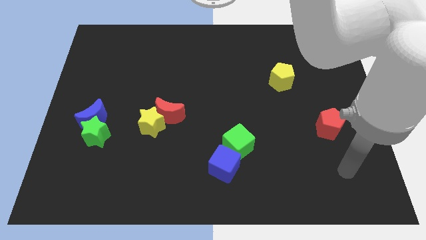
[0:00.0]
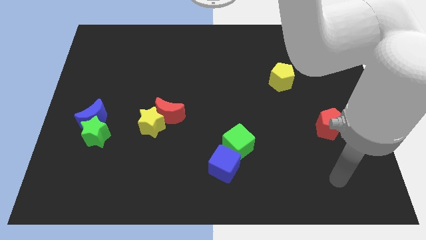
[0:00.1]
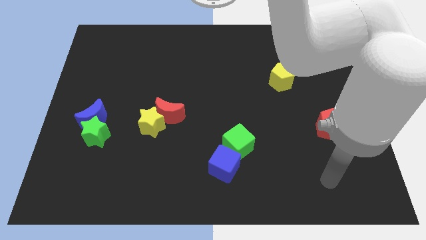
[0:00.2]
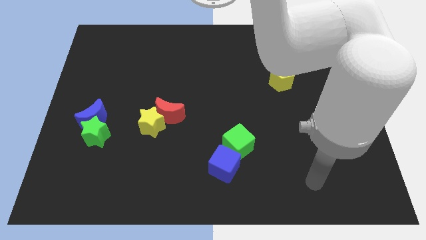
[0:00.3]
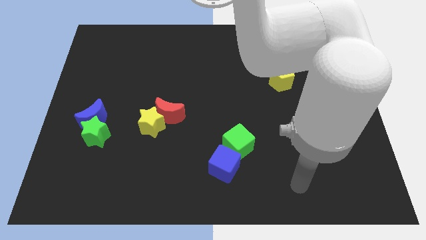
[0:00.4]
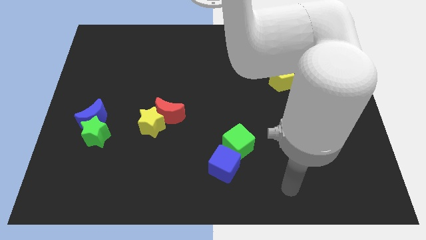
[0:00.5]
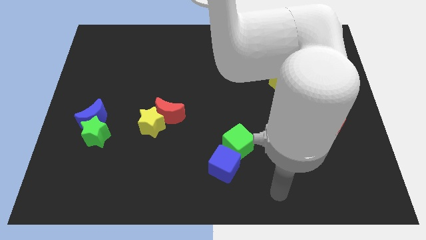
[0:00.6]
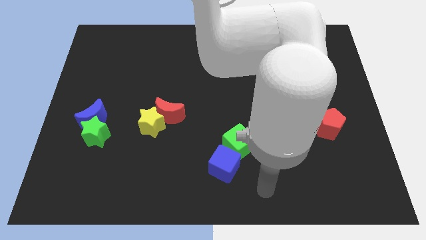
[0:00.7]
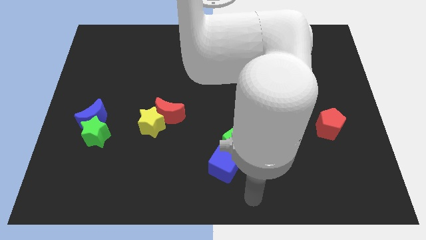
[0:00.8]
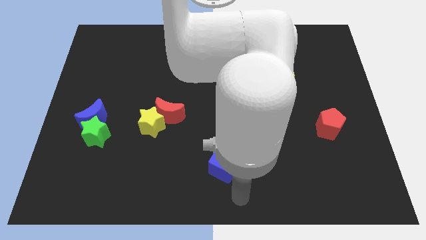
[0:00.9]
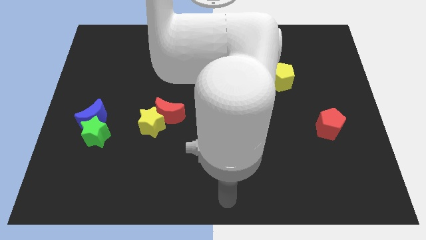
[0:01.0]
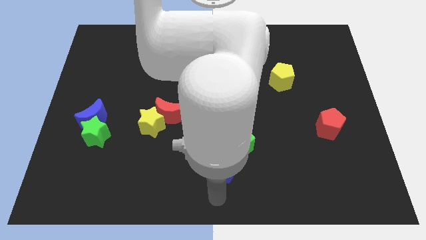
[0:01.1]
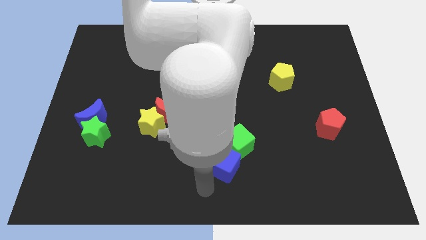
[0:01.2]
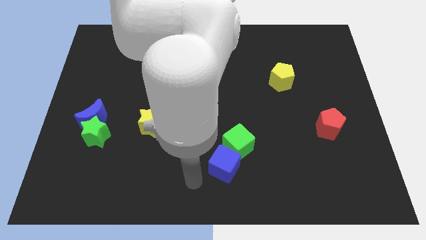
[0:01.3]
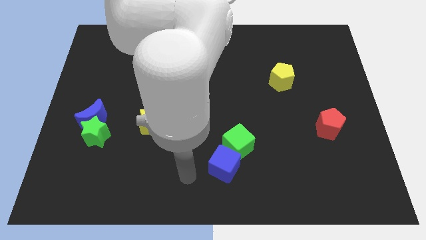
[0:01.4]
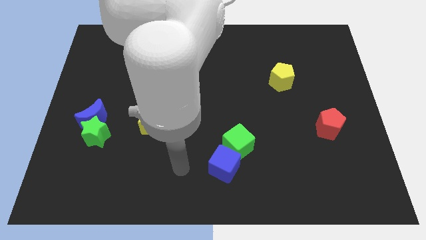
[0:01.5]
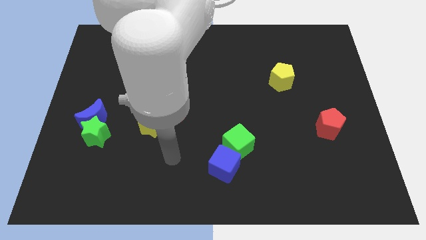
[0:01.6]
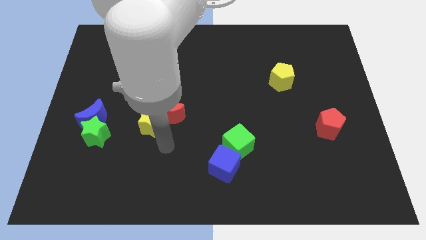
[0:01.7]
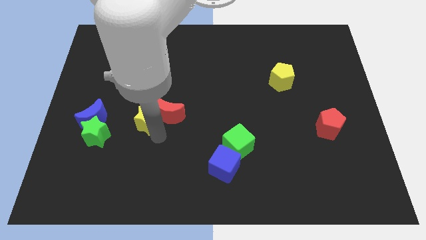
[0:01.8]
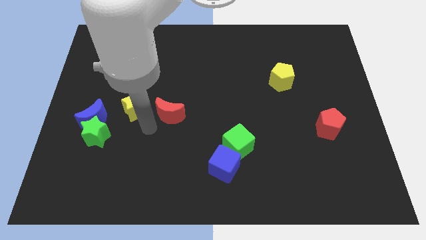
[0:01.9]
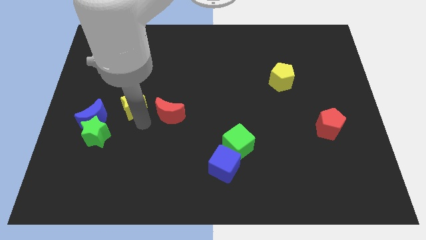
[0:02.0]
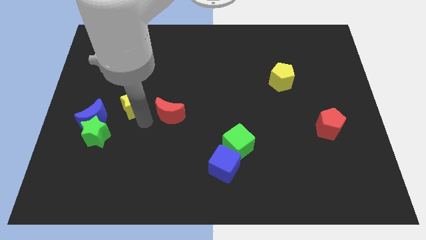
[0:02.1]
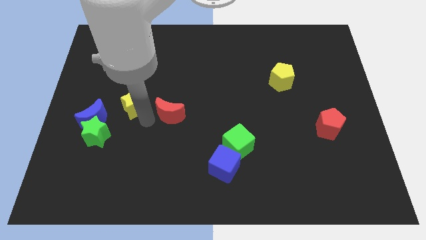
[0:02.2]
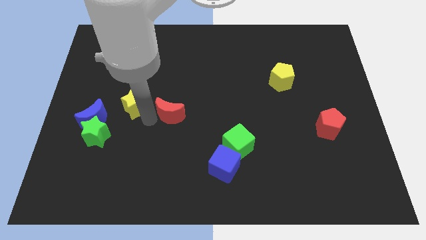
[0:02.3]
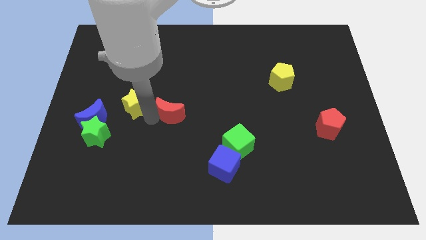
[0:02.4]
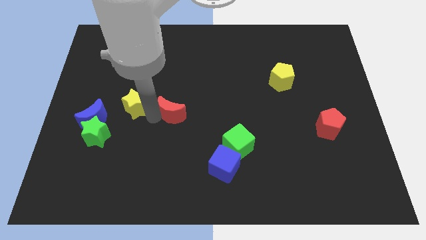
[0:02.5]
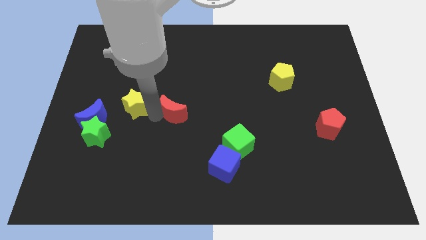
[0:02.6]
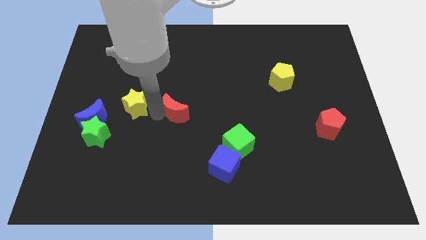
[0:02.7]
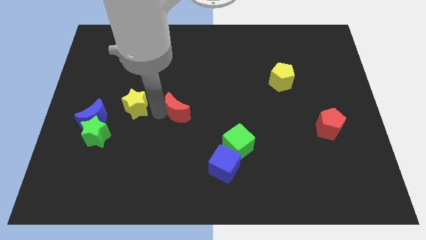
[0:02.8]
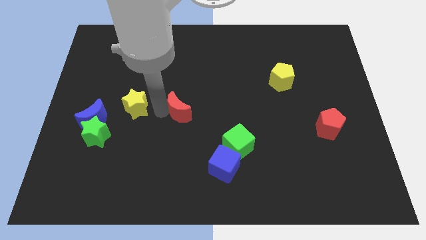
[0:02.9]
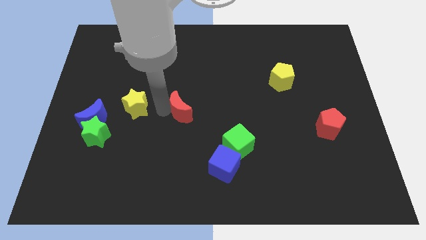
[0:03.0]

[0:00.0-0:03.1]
pull the red moon apart from the yellow star

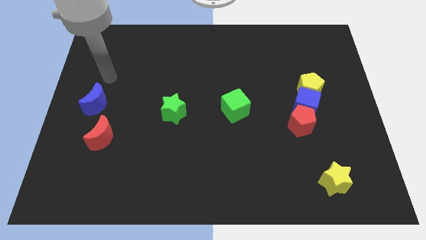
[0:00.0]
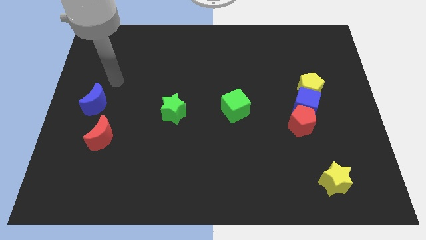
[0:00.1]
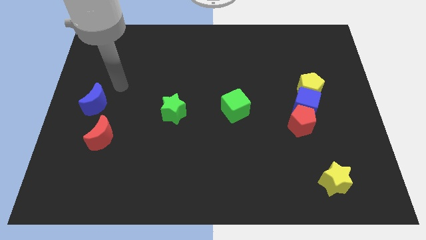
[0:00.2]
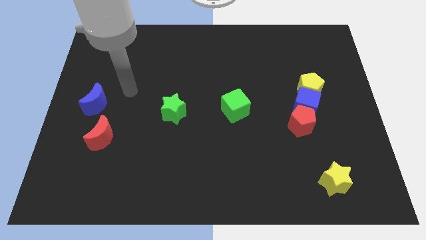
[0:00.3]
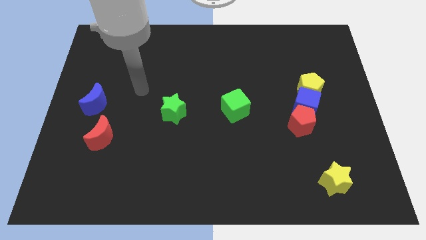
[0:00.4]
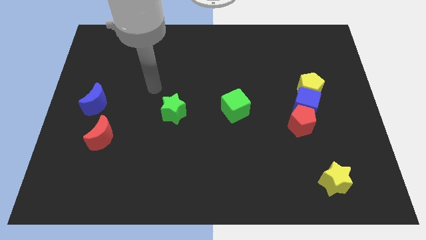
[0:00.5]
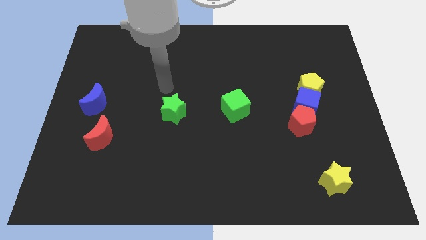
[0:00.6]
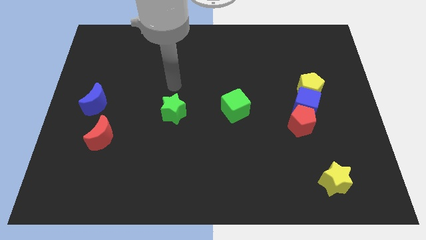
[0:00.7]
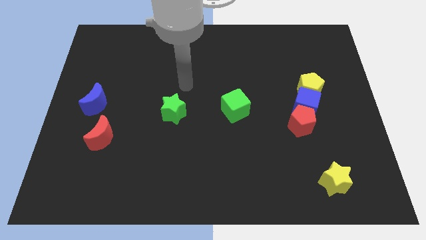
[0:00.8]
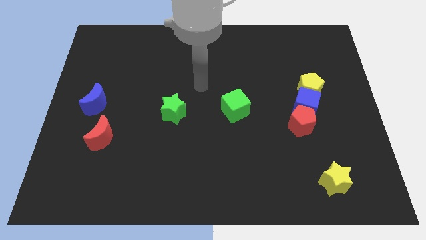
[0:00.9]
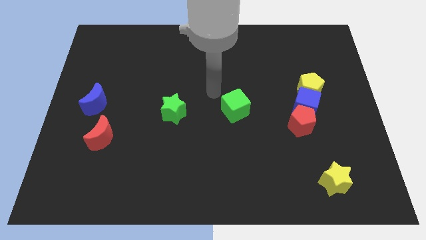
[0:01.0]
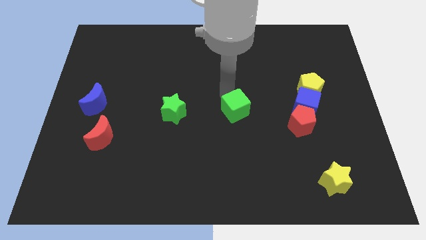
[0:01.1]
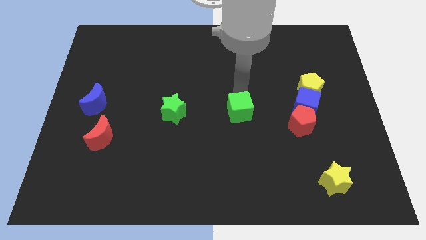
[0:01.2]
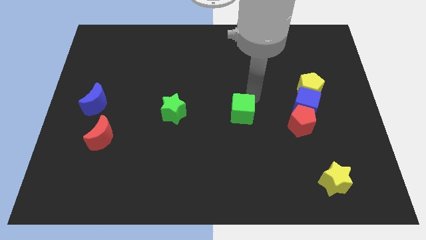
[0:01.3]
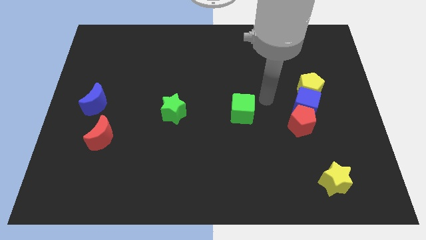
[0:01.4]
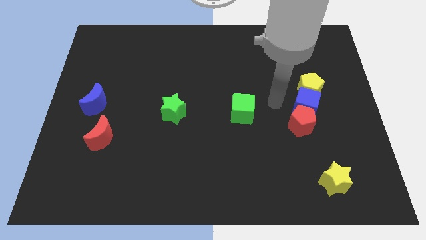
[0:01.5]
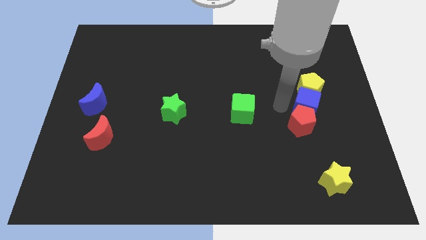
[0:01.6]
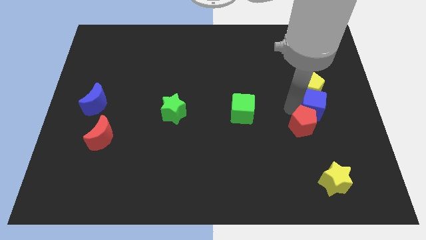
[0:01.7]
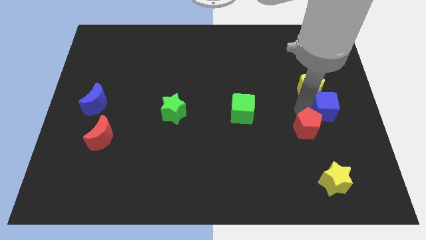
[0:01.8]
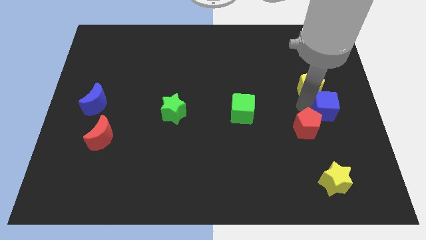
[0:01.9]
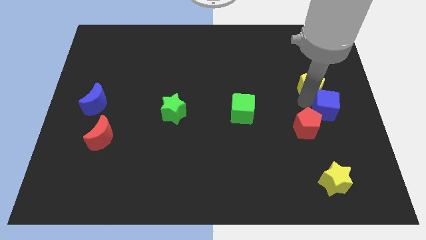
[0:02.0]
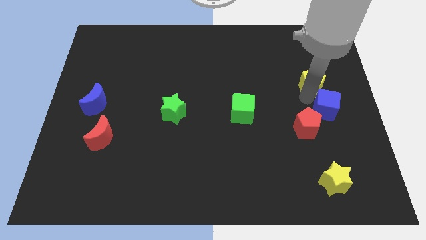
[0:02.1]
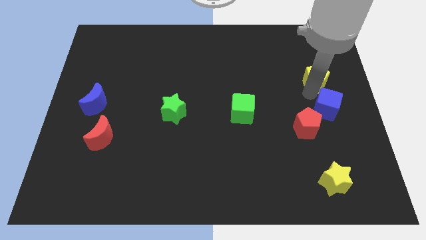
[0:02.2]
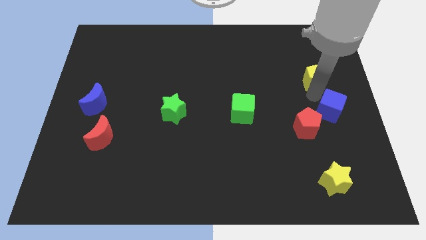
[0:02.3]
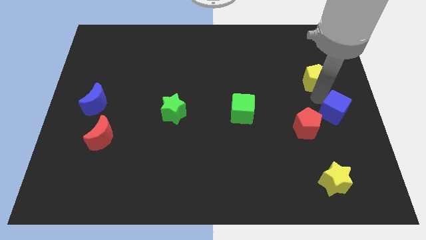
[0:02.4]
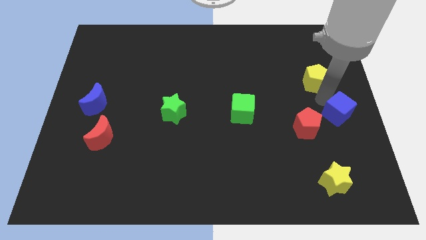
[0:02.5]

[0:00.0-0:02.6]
move the yellow pentagon away from the blue cube

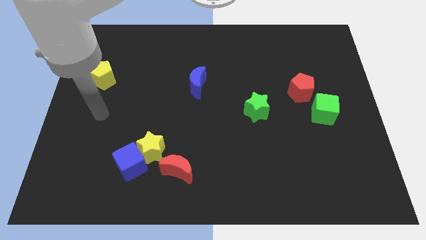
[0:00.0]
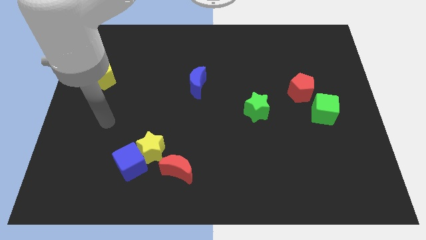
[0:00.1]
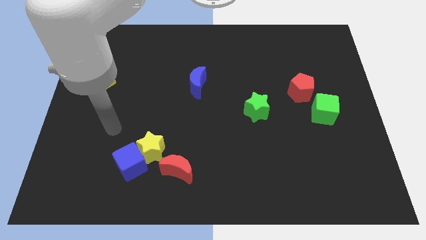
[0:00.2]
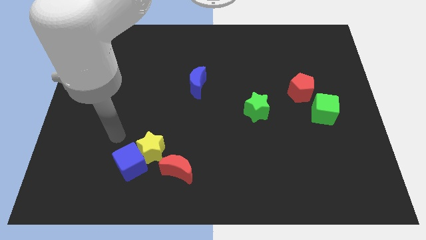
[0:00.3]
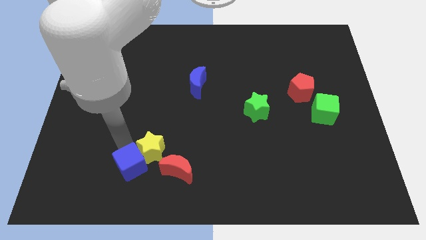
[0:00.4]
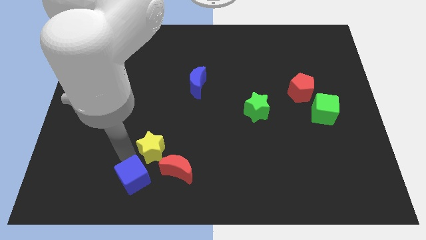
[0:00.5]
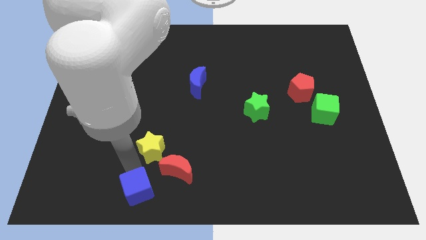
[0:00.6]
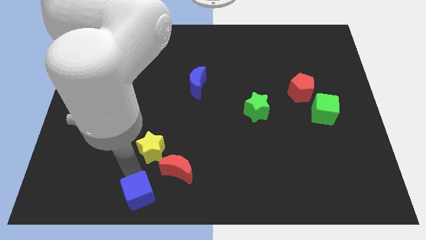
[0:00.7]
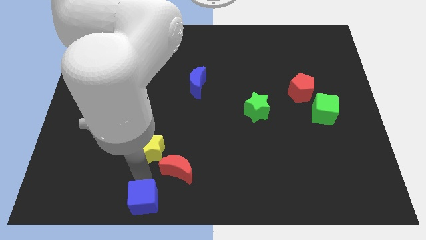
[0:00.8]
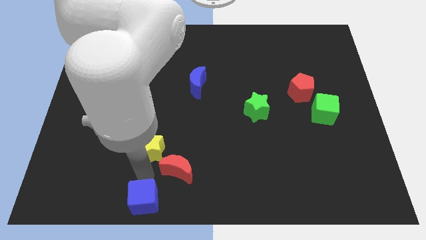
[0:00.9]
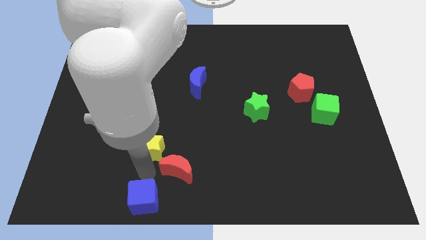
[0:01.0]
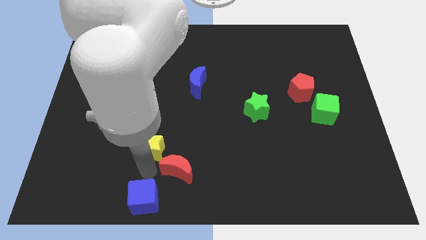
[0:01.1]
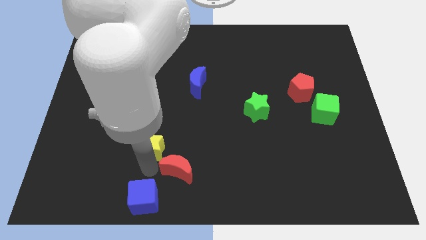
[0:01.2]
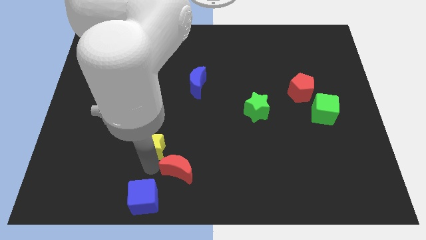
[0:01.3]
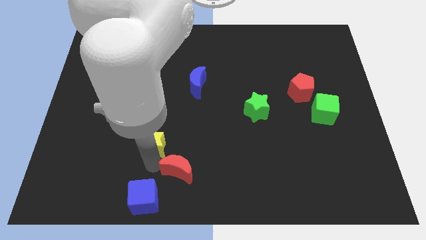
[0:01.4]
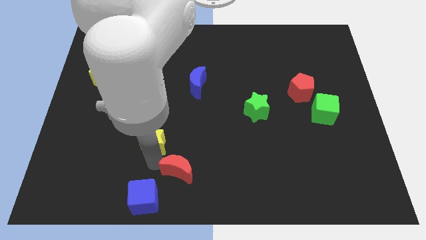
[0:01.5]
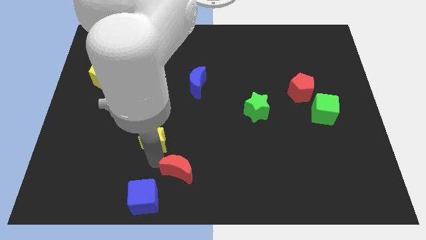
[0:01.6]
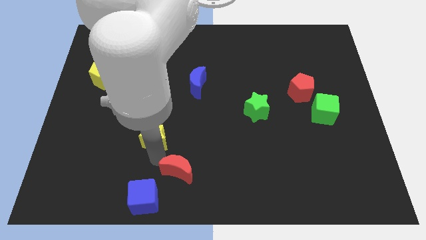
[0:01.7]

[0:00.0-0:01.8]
separate the yellow star from the blue cube and red moon

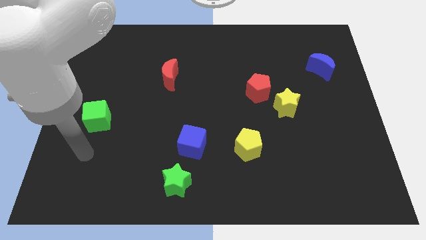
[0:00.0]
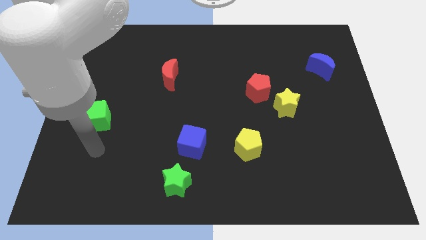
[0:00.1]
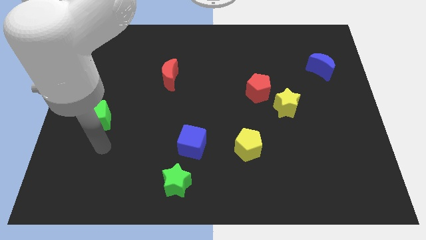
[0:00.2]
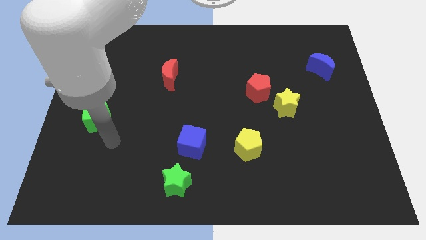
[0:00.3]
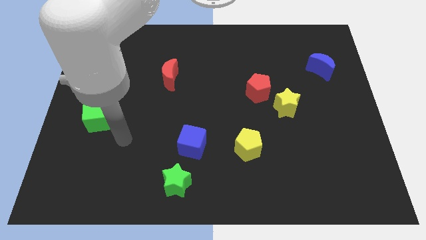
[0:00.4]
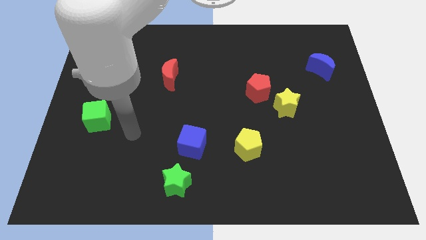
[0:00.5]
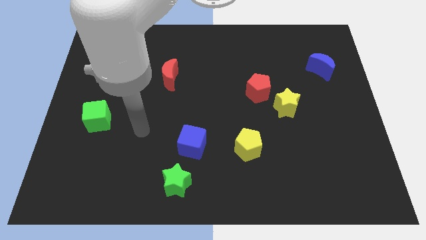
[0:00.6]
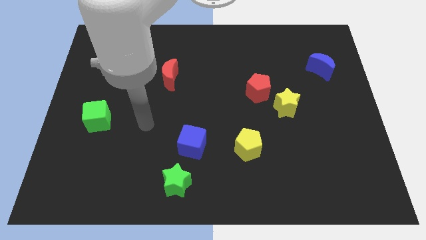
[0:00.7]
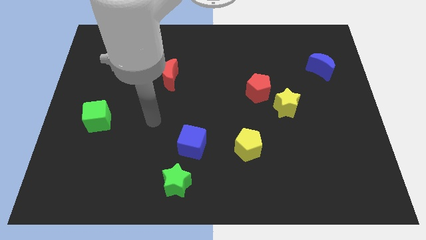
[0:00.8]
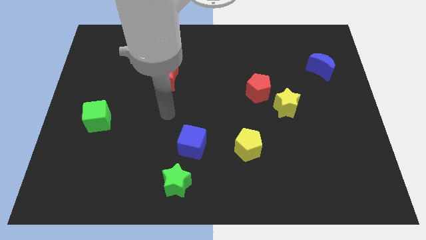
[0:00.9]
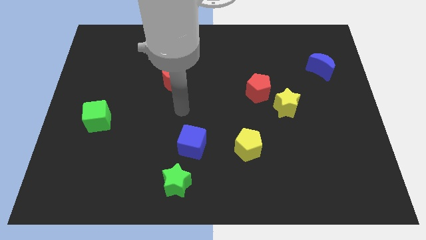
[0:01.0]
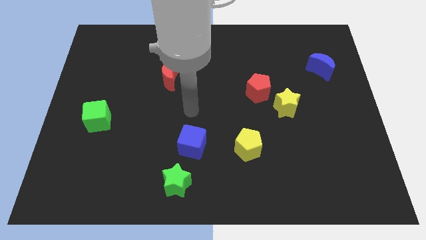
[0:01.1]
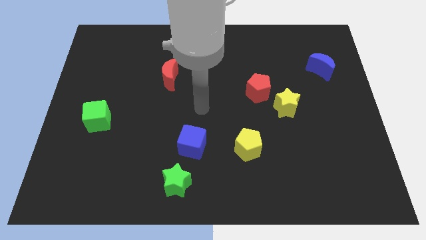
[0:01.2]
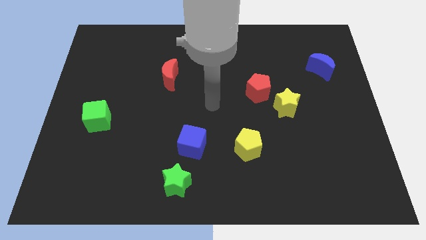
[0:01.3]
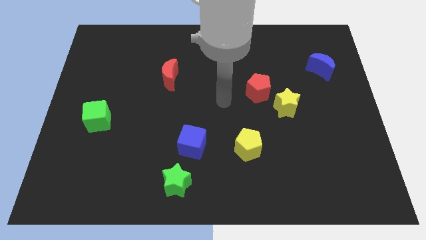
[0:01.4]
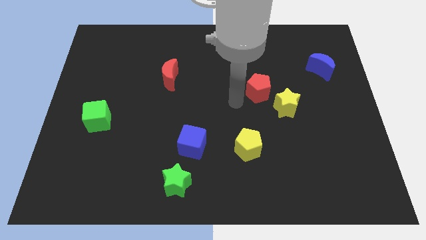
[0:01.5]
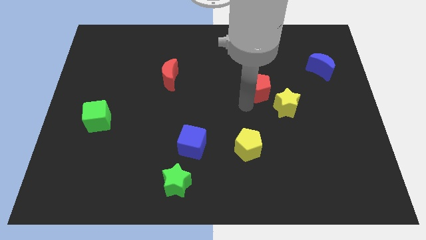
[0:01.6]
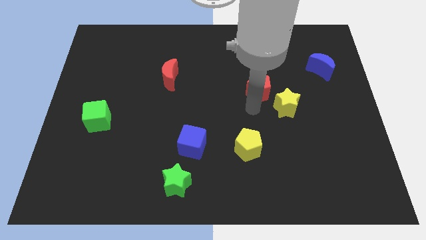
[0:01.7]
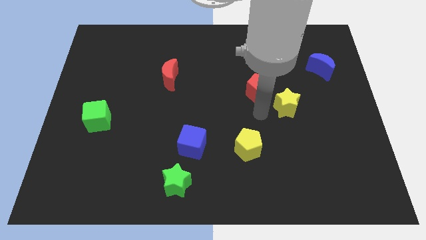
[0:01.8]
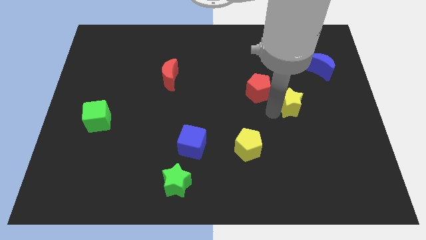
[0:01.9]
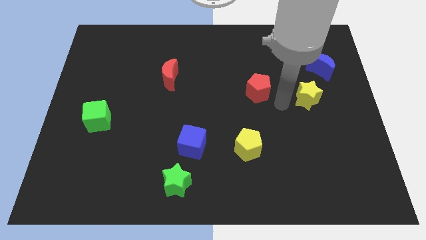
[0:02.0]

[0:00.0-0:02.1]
move the red pentagon away from the yellow star
